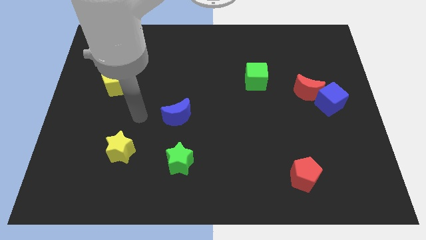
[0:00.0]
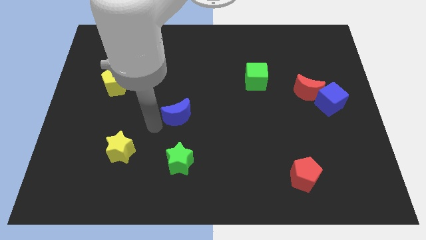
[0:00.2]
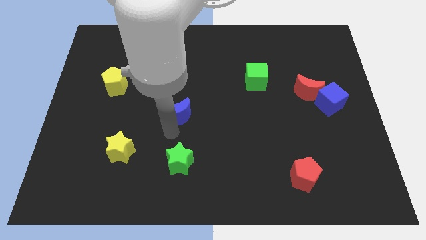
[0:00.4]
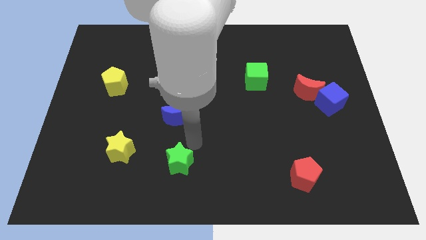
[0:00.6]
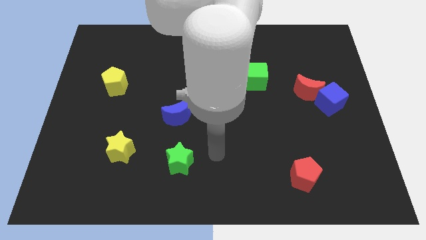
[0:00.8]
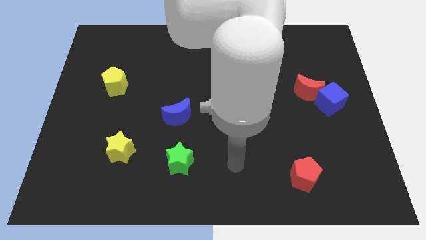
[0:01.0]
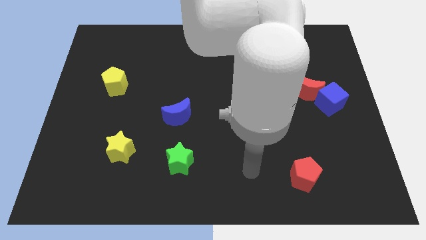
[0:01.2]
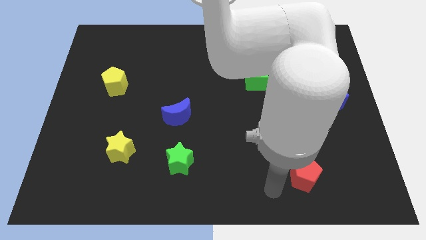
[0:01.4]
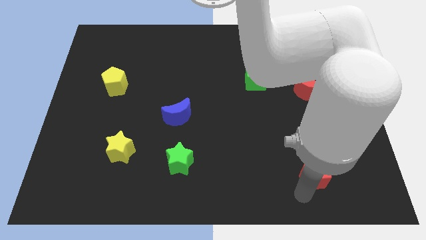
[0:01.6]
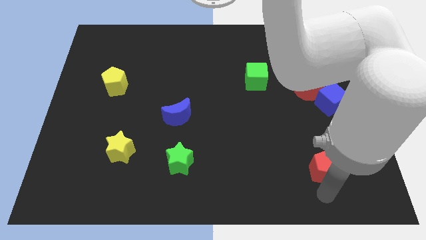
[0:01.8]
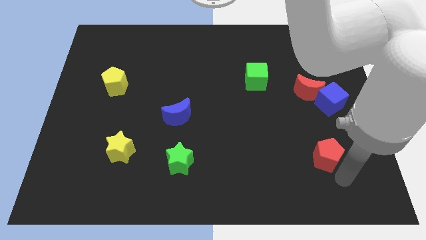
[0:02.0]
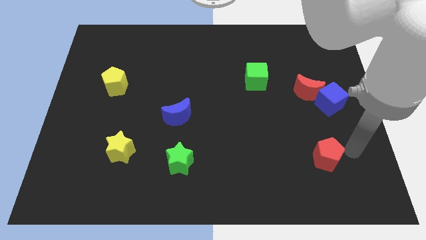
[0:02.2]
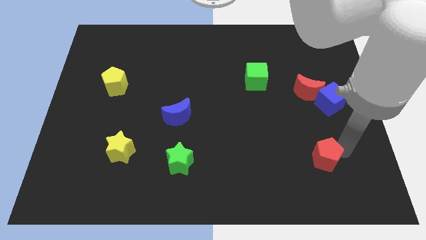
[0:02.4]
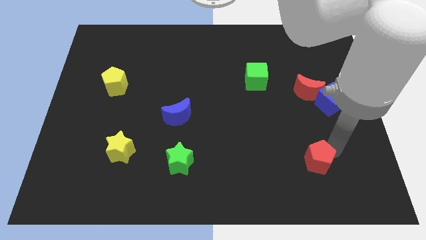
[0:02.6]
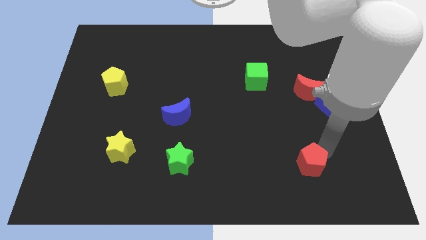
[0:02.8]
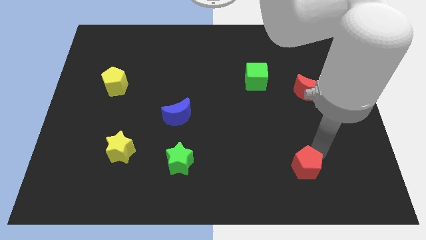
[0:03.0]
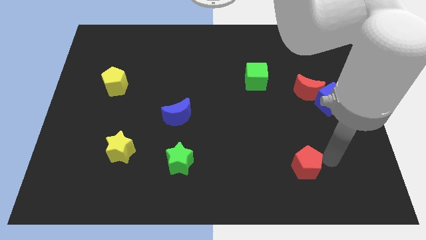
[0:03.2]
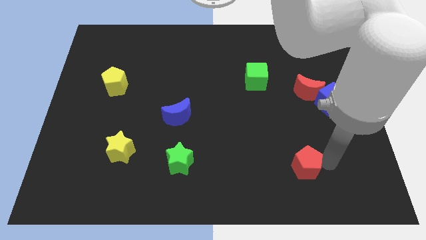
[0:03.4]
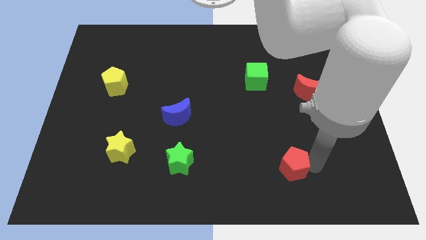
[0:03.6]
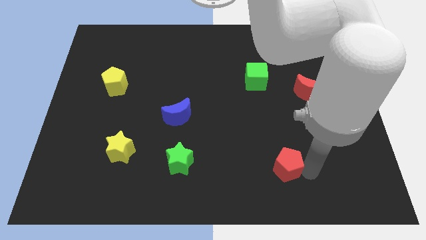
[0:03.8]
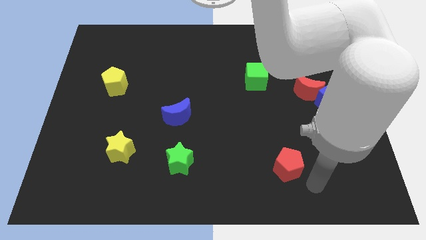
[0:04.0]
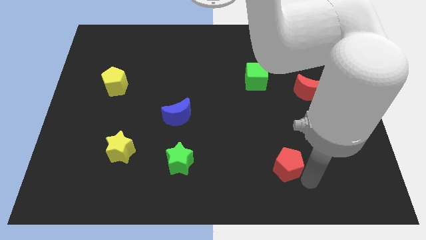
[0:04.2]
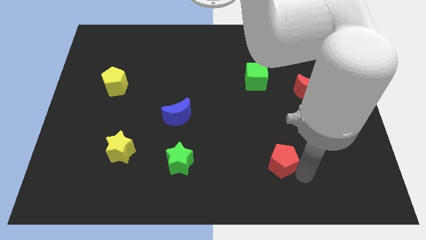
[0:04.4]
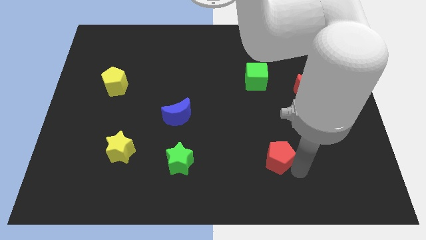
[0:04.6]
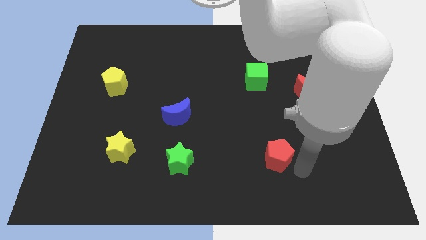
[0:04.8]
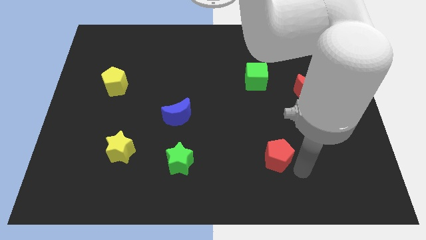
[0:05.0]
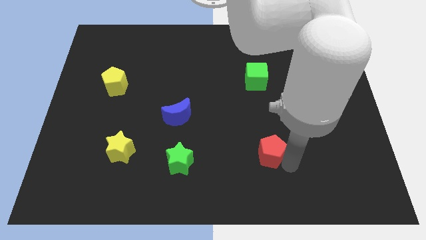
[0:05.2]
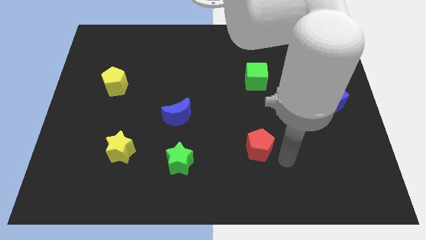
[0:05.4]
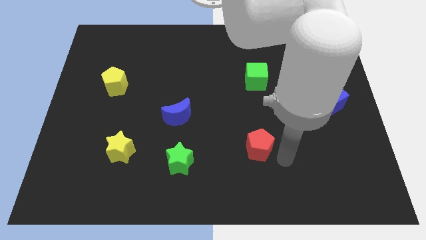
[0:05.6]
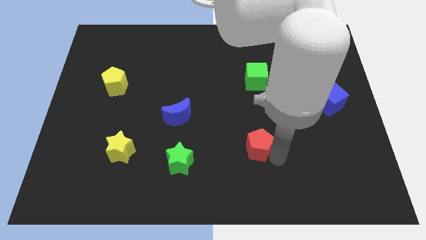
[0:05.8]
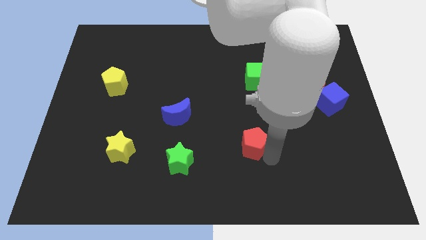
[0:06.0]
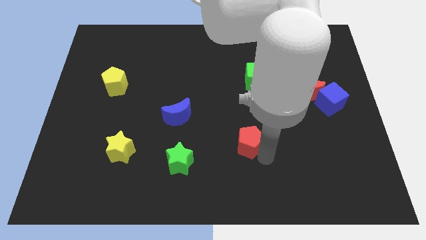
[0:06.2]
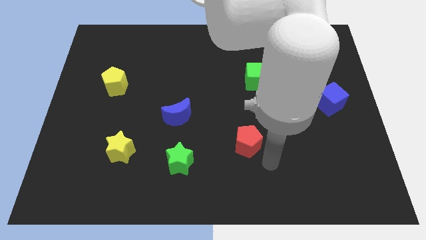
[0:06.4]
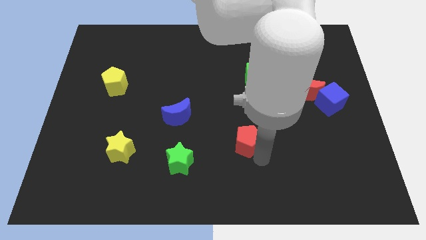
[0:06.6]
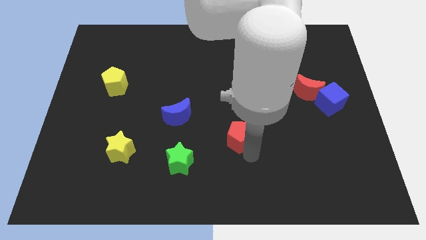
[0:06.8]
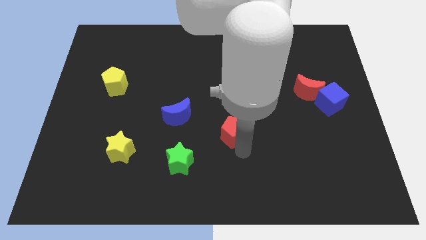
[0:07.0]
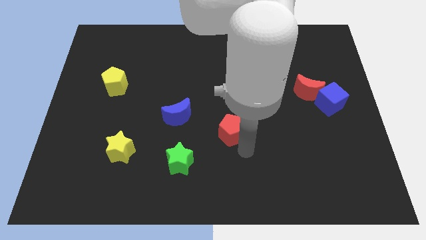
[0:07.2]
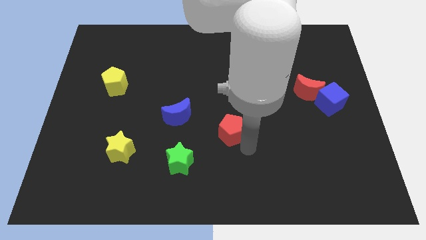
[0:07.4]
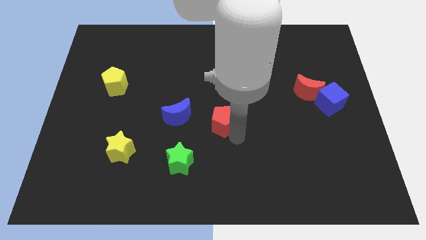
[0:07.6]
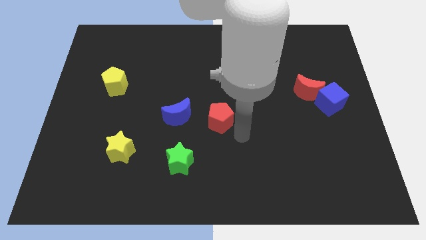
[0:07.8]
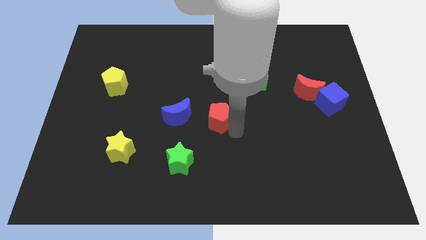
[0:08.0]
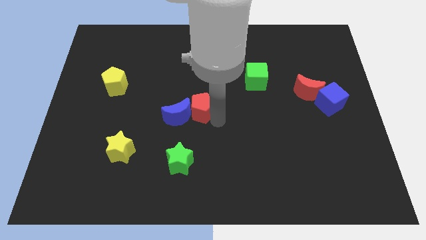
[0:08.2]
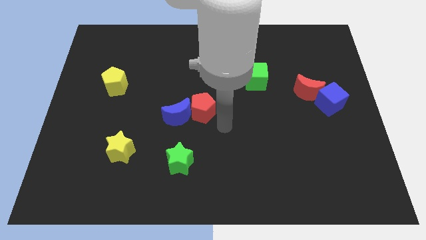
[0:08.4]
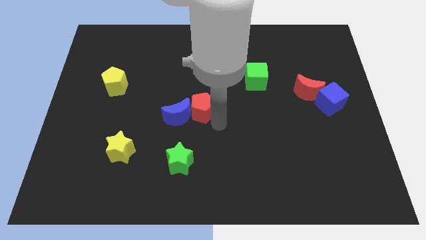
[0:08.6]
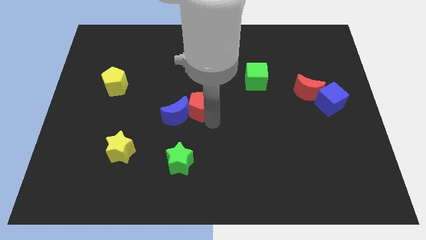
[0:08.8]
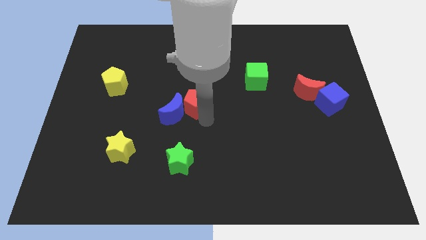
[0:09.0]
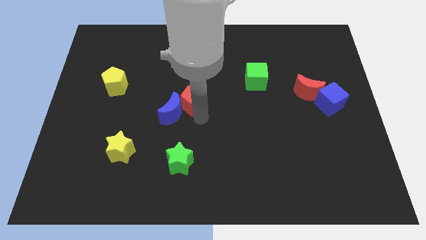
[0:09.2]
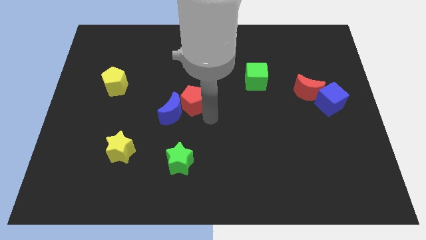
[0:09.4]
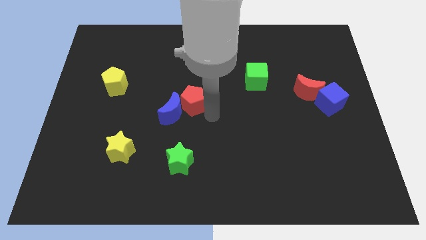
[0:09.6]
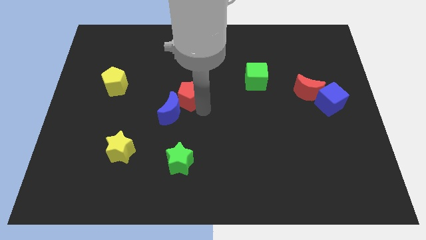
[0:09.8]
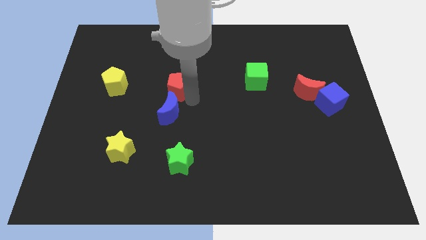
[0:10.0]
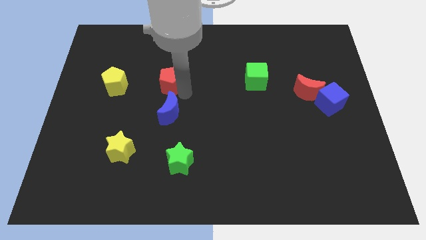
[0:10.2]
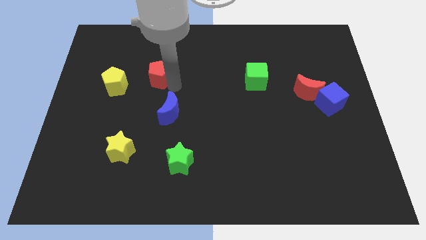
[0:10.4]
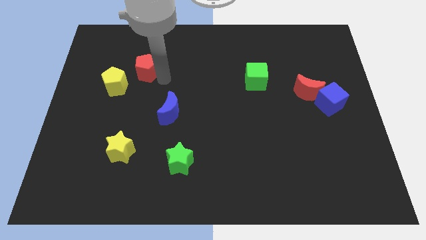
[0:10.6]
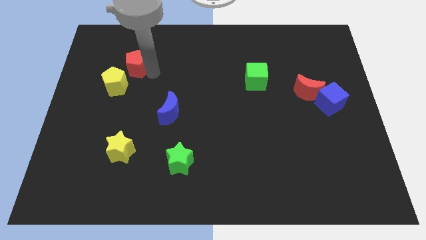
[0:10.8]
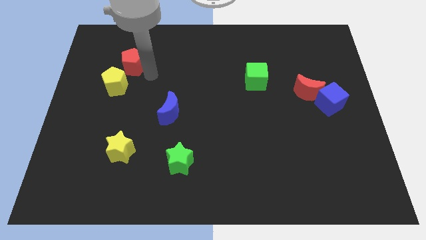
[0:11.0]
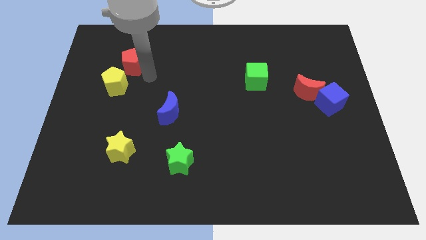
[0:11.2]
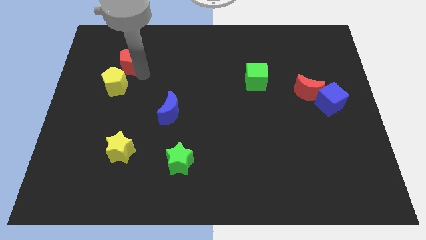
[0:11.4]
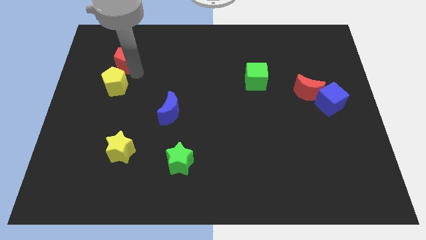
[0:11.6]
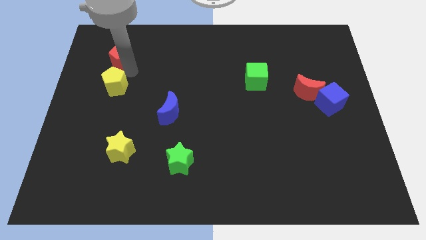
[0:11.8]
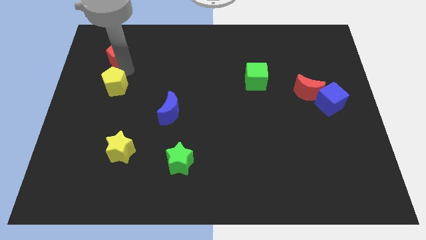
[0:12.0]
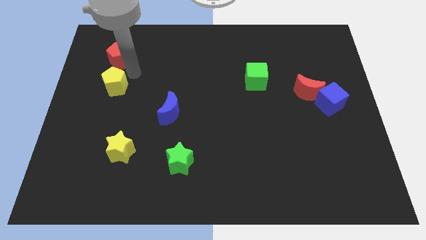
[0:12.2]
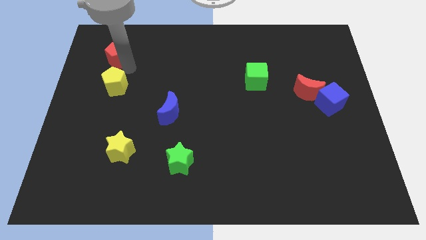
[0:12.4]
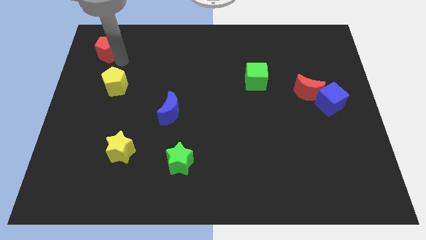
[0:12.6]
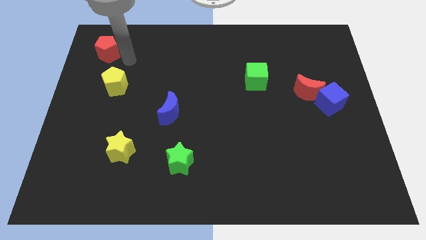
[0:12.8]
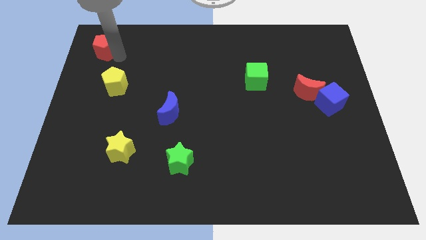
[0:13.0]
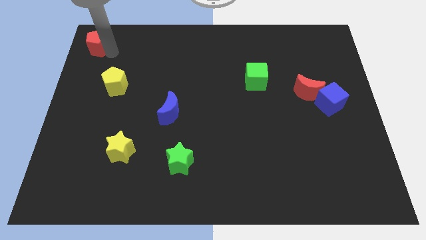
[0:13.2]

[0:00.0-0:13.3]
slide the red pentagon to the top left
